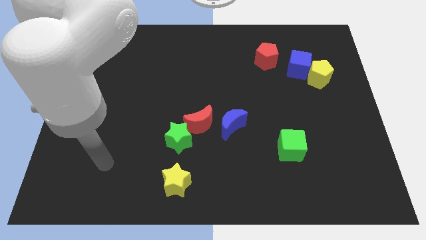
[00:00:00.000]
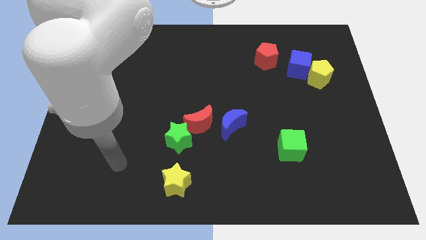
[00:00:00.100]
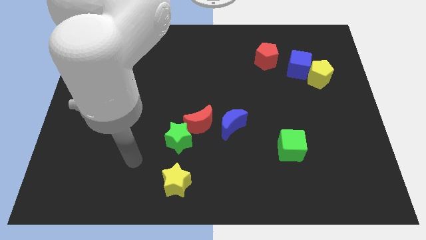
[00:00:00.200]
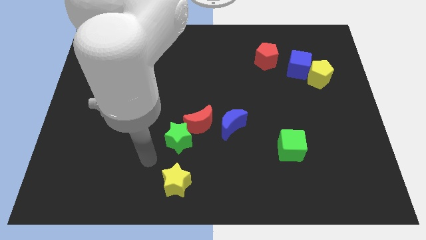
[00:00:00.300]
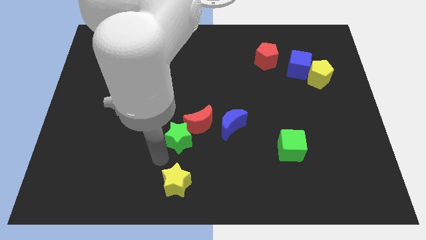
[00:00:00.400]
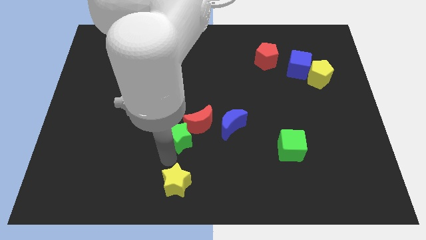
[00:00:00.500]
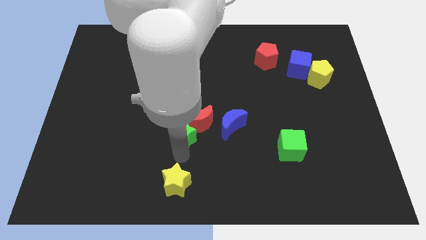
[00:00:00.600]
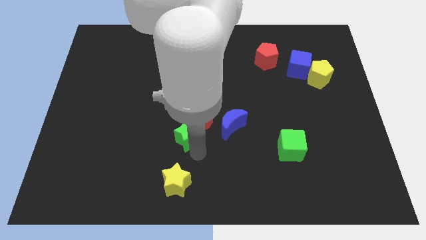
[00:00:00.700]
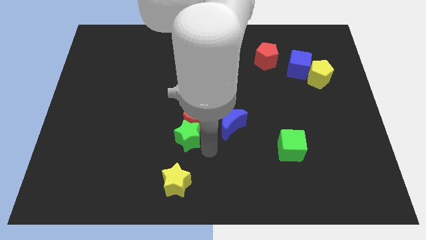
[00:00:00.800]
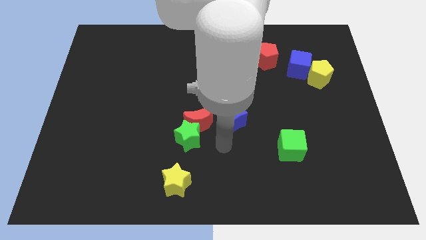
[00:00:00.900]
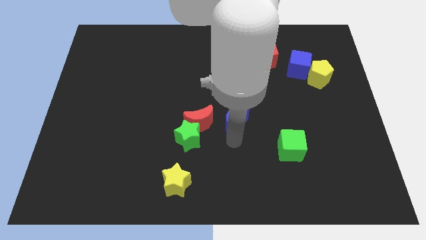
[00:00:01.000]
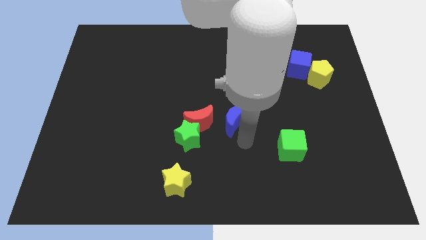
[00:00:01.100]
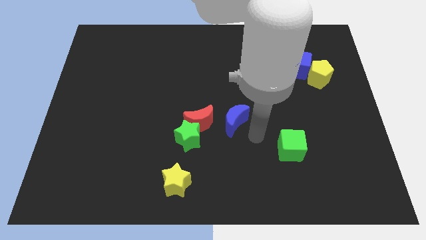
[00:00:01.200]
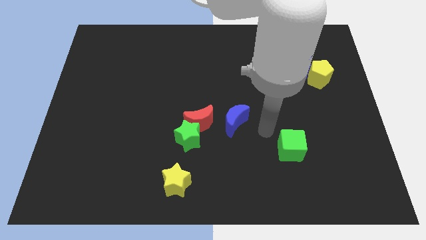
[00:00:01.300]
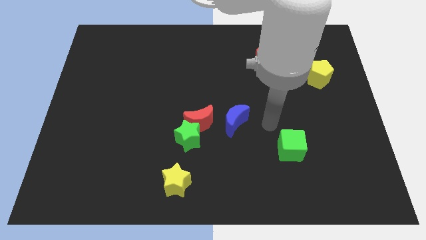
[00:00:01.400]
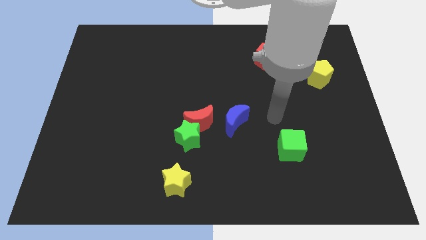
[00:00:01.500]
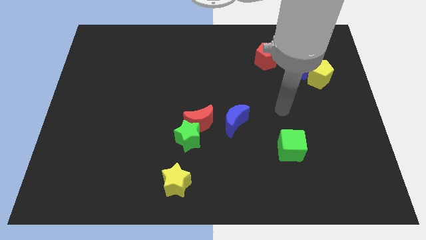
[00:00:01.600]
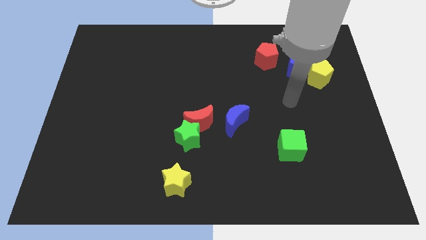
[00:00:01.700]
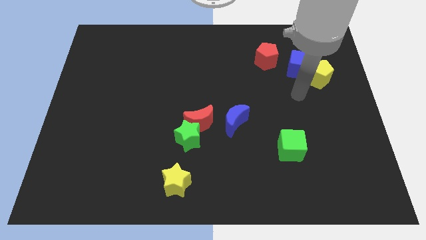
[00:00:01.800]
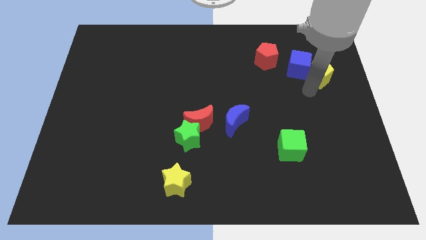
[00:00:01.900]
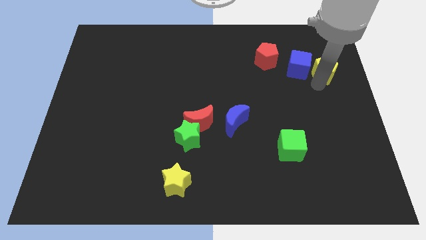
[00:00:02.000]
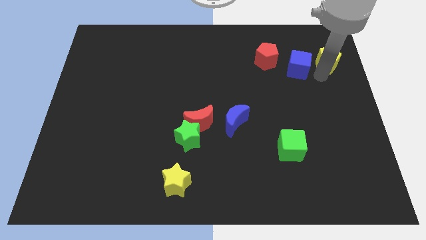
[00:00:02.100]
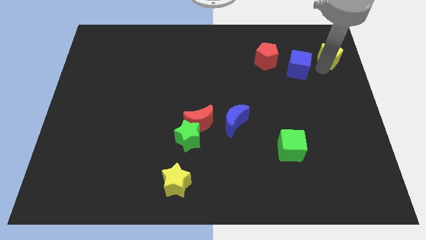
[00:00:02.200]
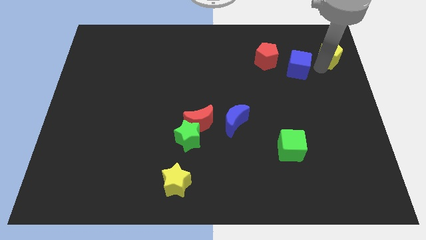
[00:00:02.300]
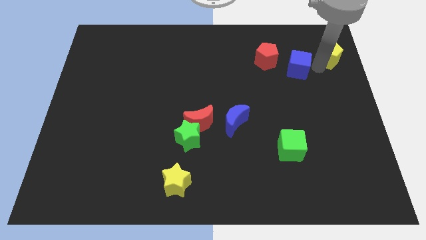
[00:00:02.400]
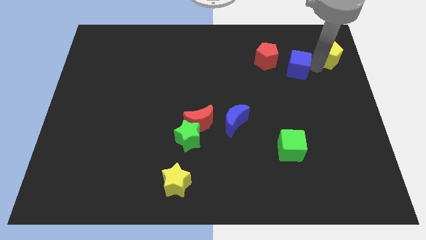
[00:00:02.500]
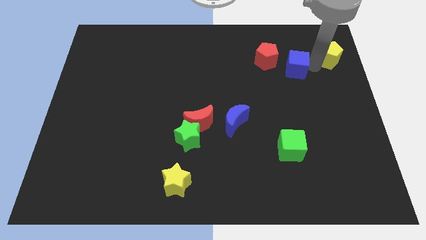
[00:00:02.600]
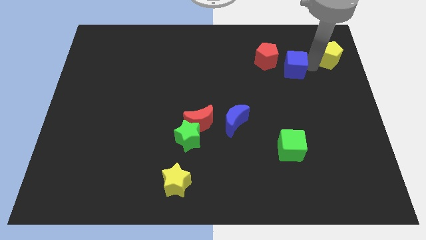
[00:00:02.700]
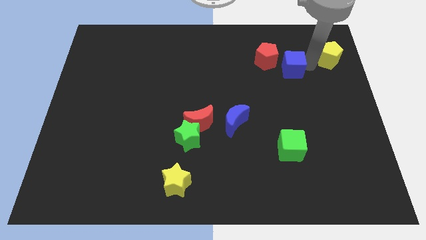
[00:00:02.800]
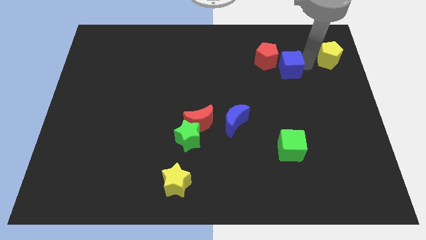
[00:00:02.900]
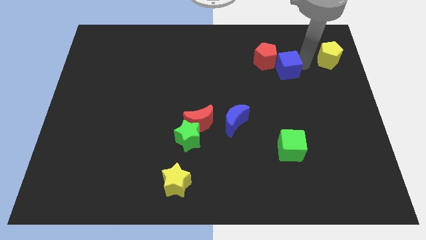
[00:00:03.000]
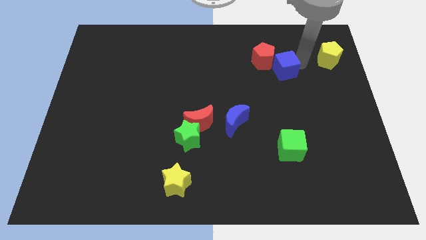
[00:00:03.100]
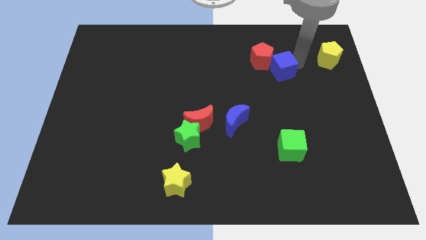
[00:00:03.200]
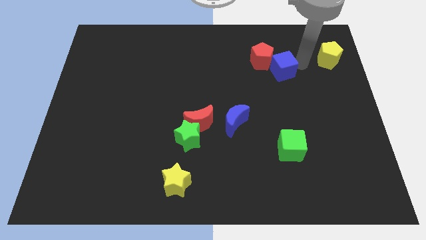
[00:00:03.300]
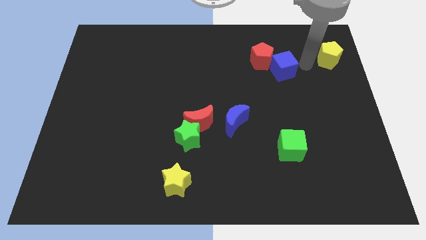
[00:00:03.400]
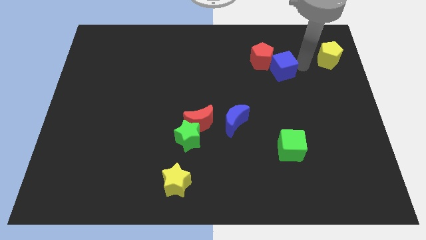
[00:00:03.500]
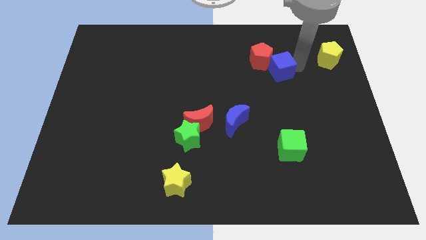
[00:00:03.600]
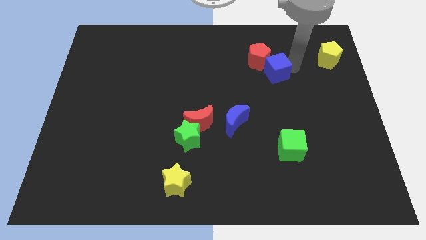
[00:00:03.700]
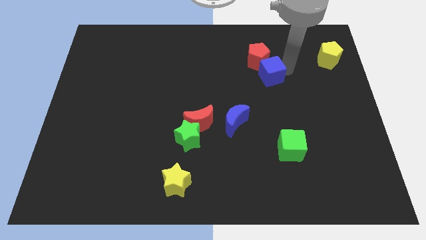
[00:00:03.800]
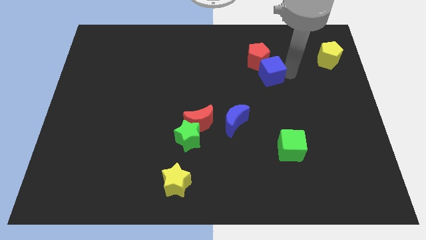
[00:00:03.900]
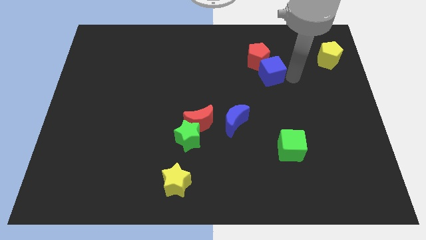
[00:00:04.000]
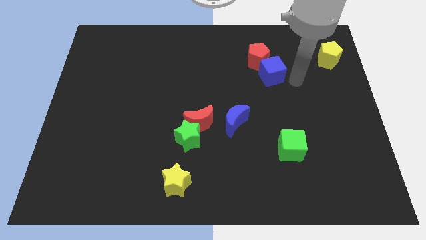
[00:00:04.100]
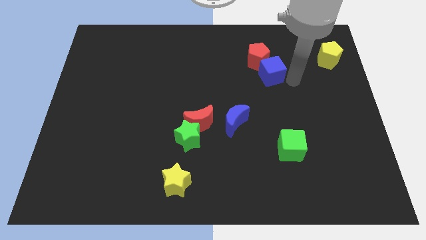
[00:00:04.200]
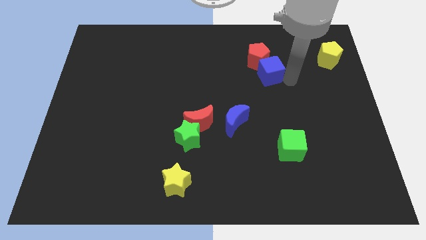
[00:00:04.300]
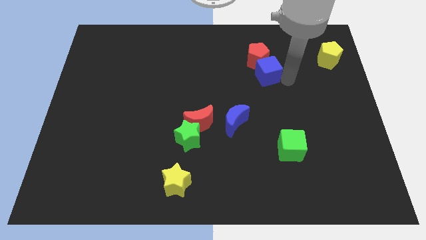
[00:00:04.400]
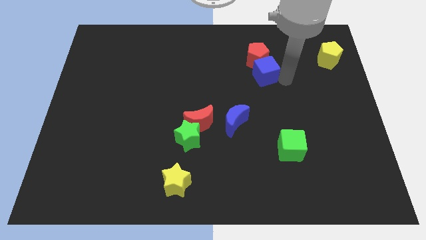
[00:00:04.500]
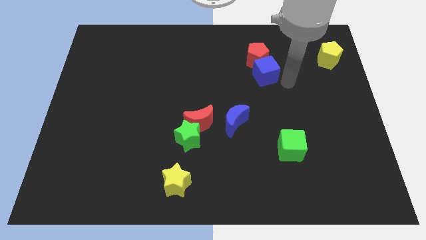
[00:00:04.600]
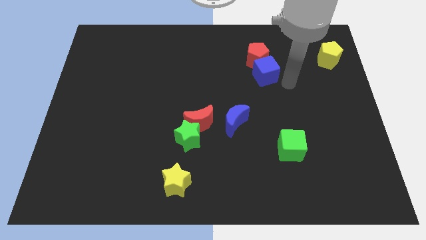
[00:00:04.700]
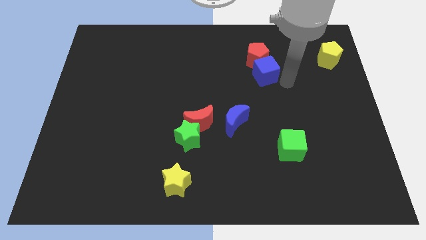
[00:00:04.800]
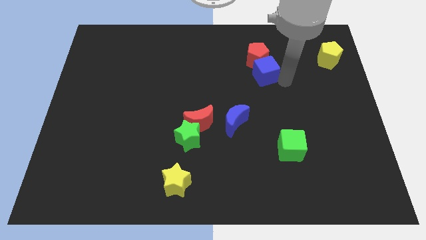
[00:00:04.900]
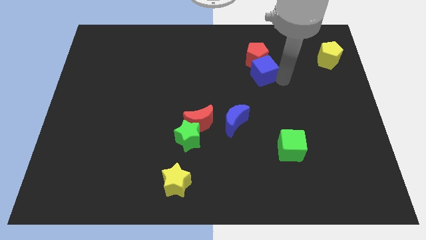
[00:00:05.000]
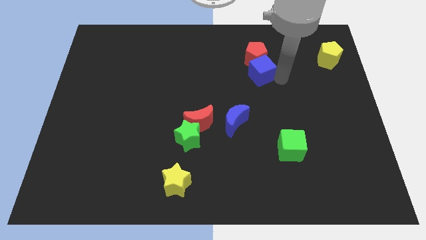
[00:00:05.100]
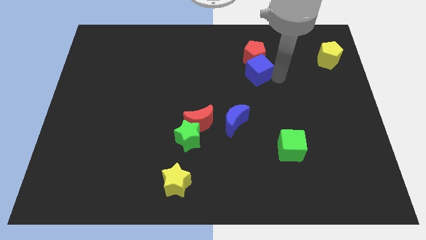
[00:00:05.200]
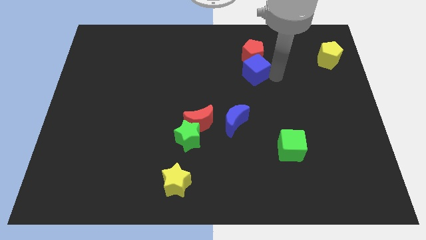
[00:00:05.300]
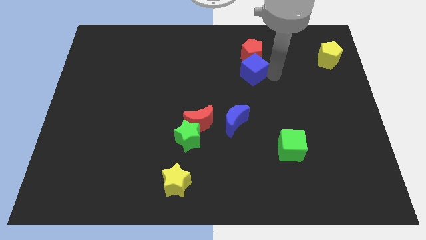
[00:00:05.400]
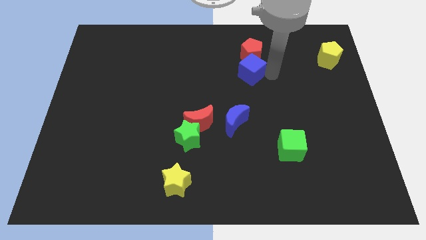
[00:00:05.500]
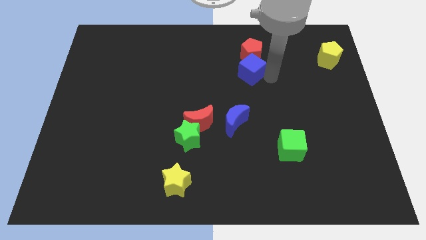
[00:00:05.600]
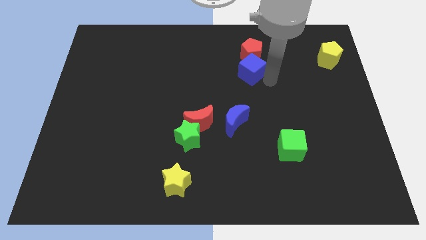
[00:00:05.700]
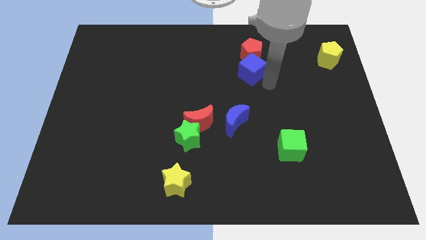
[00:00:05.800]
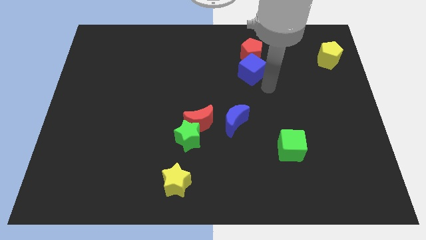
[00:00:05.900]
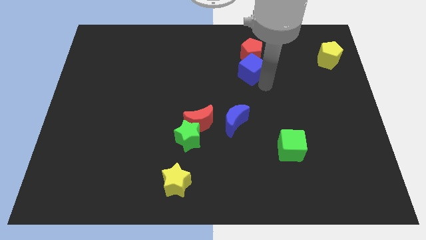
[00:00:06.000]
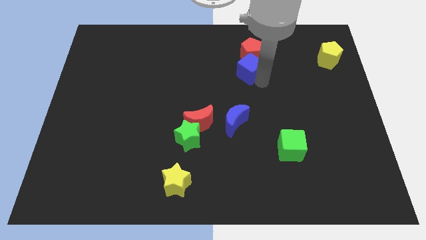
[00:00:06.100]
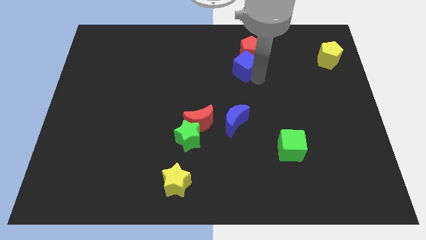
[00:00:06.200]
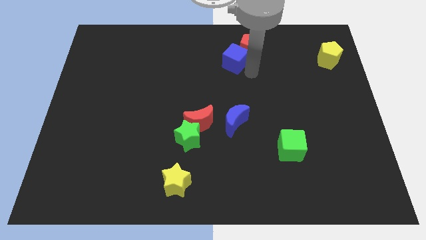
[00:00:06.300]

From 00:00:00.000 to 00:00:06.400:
move the blue cube left of the red pentagon
